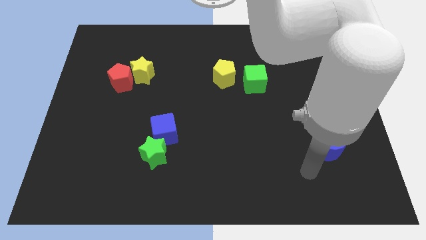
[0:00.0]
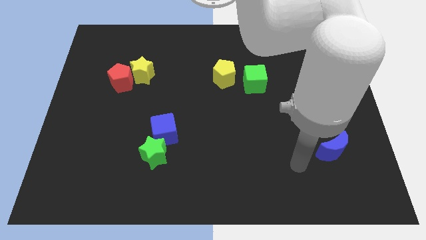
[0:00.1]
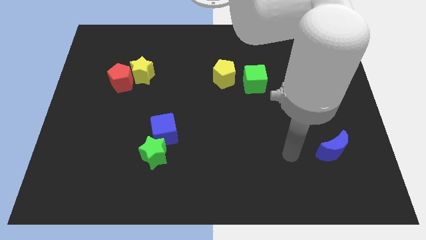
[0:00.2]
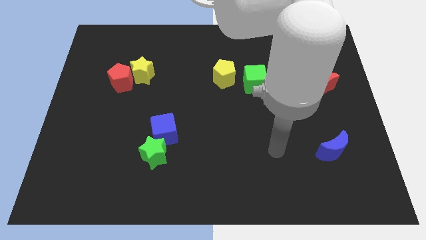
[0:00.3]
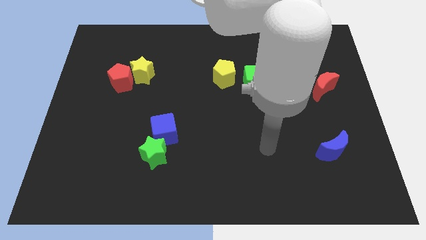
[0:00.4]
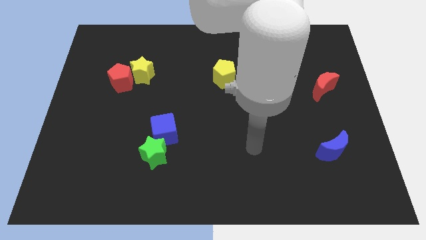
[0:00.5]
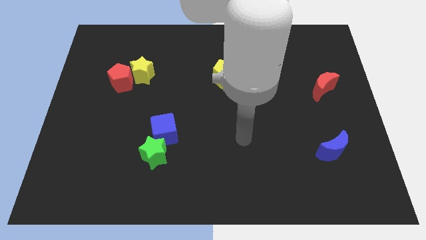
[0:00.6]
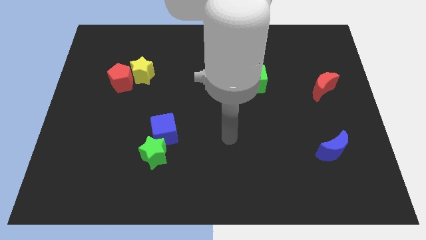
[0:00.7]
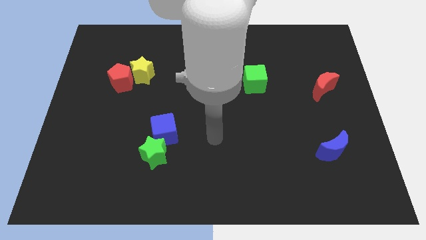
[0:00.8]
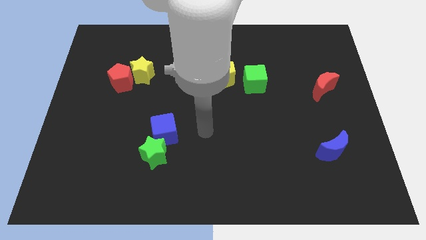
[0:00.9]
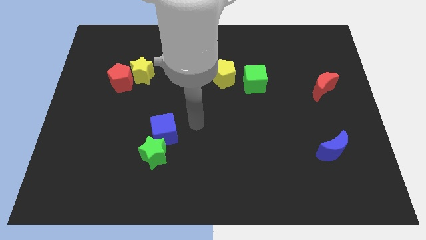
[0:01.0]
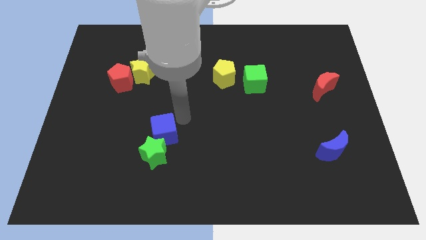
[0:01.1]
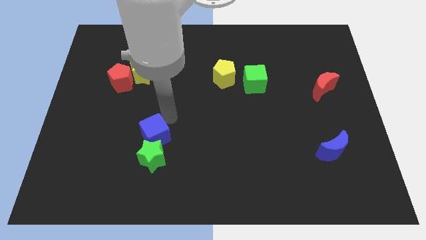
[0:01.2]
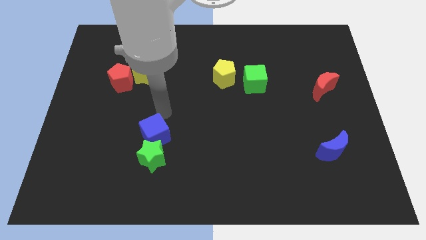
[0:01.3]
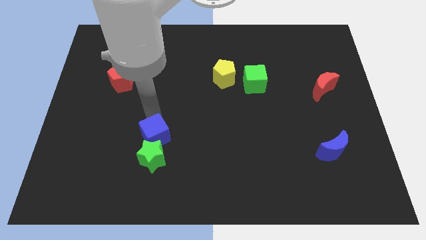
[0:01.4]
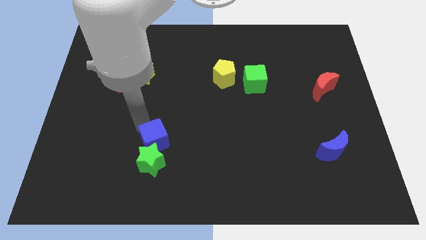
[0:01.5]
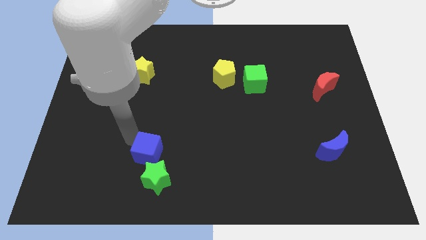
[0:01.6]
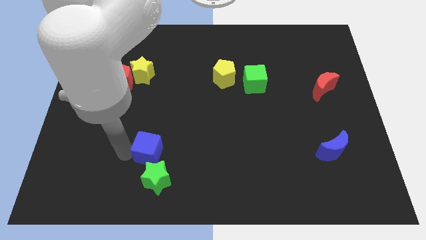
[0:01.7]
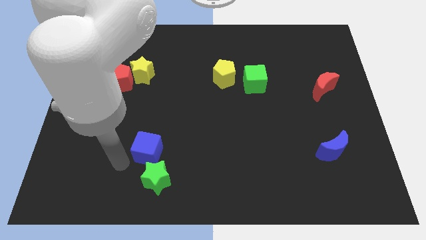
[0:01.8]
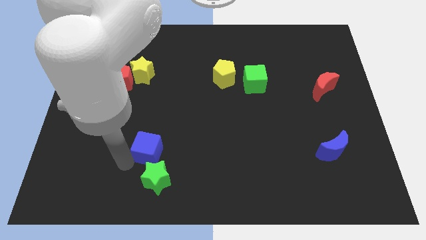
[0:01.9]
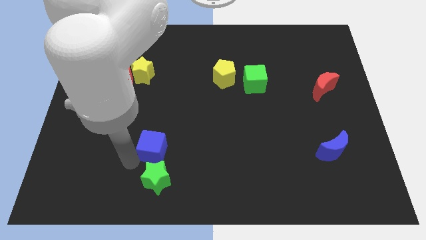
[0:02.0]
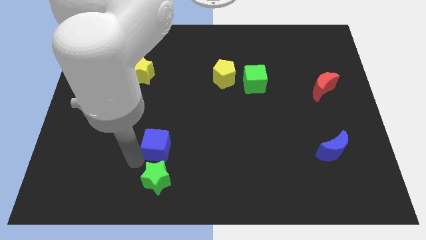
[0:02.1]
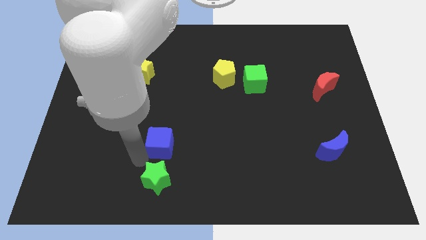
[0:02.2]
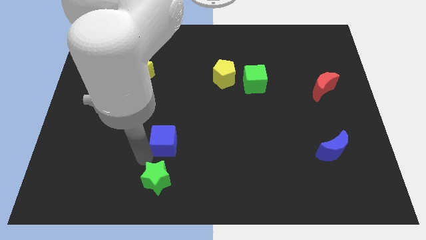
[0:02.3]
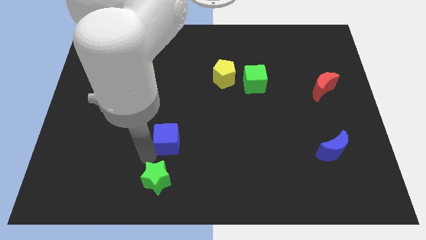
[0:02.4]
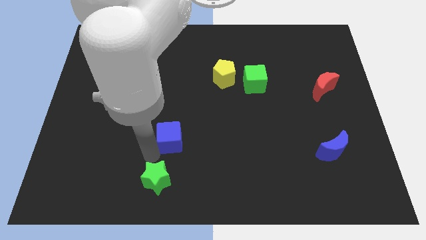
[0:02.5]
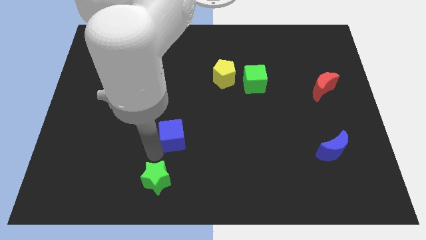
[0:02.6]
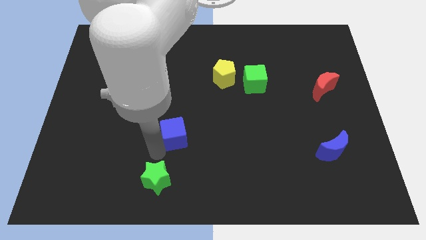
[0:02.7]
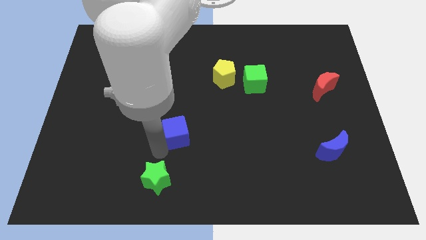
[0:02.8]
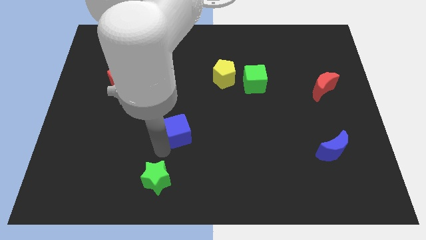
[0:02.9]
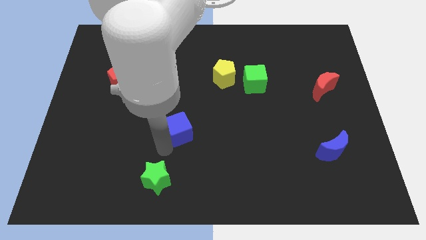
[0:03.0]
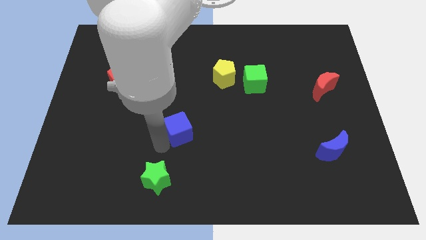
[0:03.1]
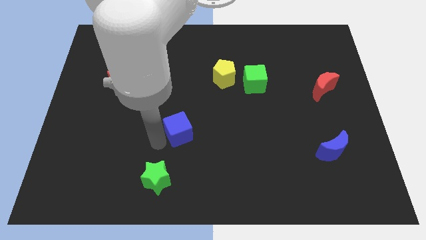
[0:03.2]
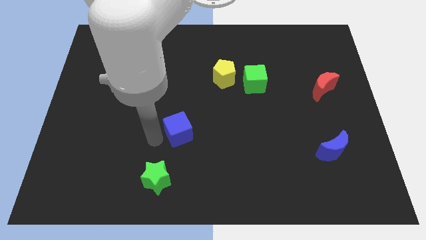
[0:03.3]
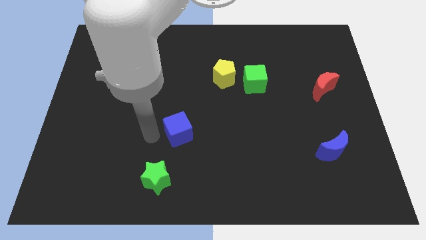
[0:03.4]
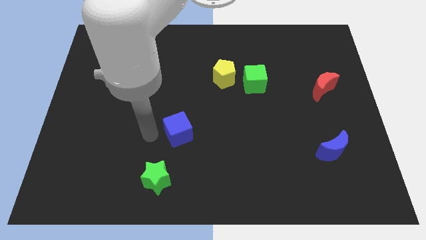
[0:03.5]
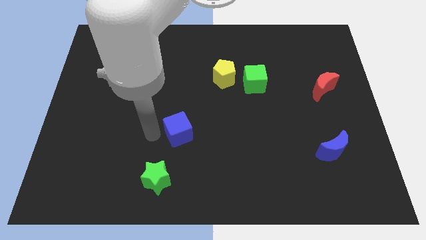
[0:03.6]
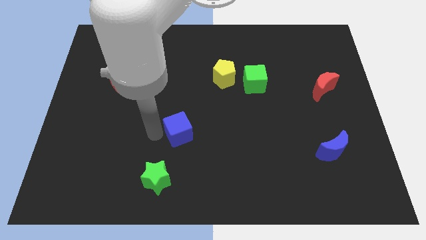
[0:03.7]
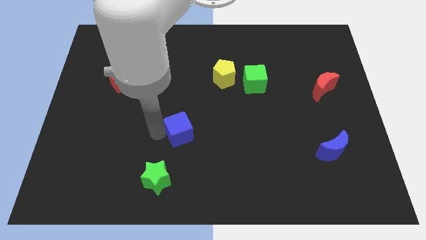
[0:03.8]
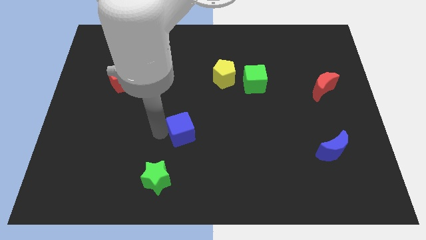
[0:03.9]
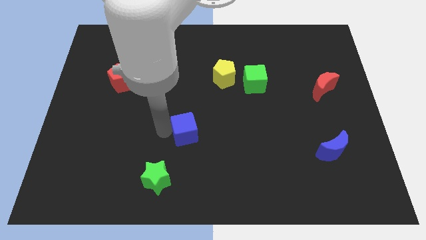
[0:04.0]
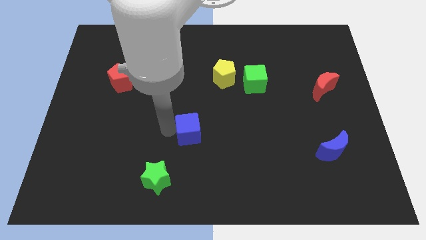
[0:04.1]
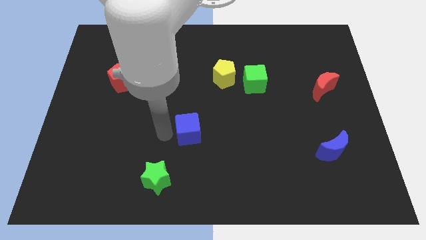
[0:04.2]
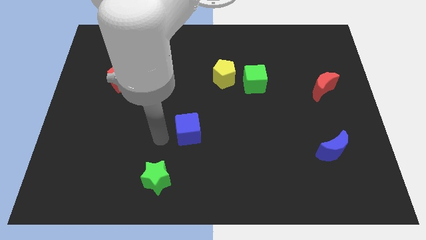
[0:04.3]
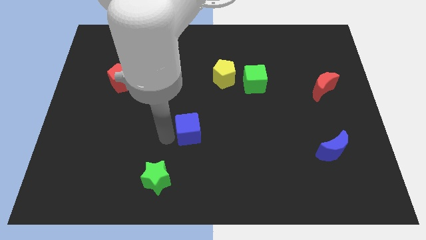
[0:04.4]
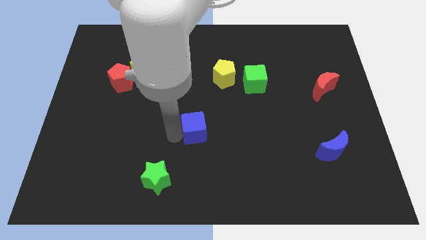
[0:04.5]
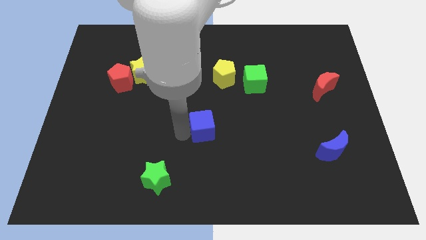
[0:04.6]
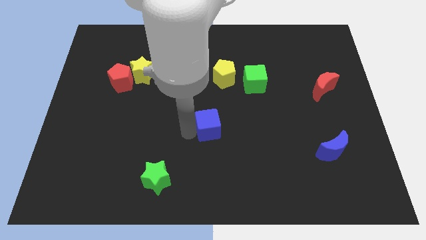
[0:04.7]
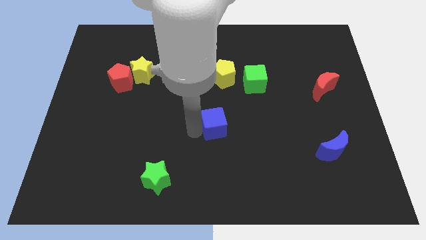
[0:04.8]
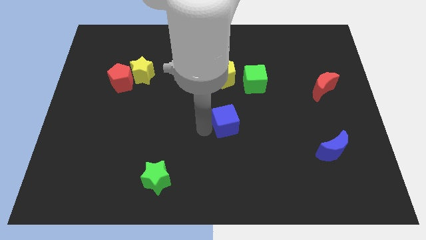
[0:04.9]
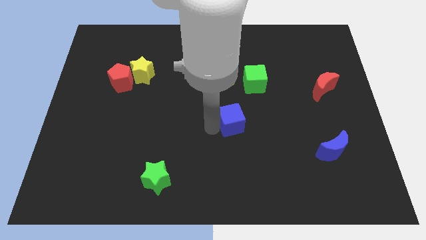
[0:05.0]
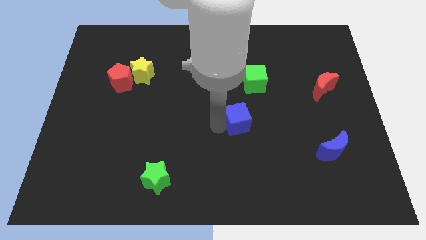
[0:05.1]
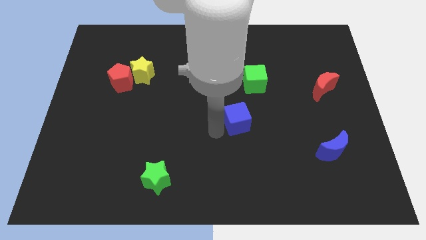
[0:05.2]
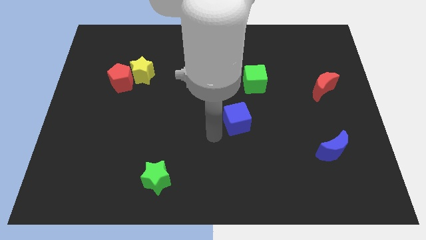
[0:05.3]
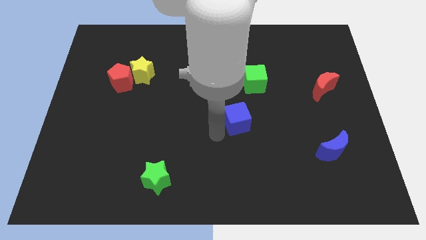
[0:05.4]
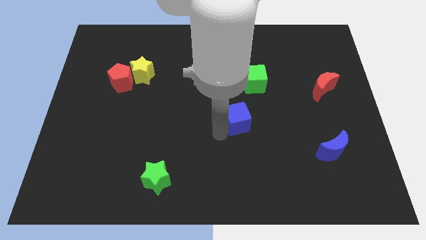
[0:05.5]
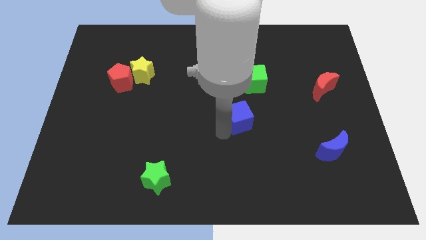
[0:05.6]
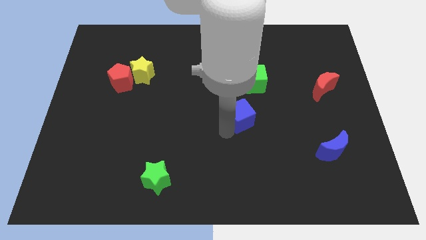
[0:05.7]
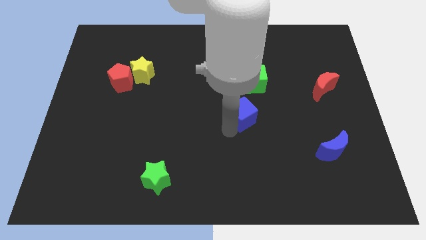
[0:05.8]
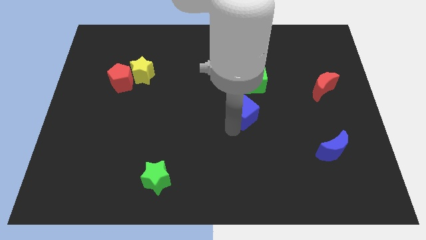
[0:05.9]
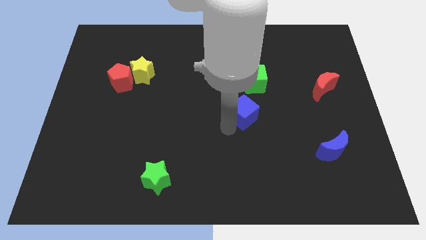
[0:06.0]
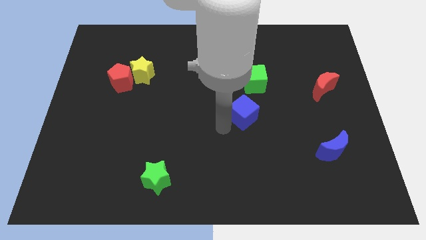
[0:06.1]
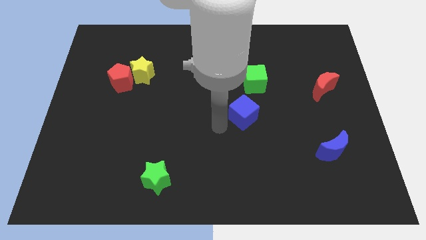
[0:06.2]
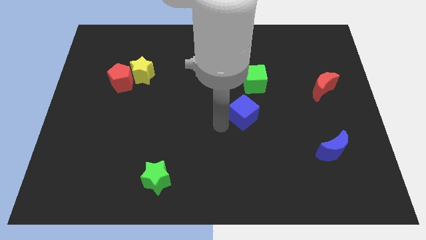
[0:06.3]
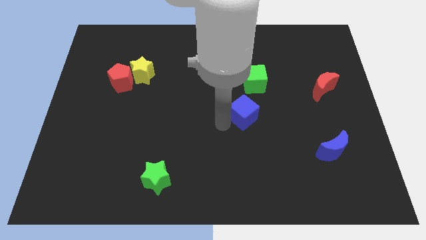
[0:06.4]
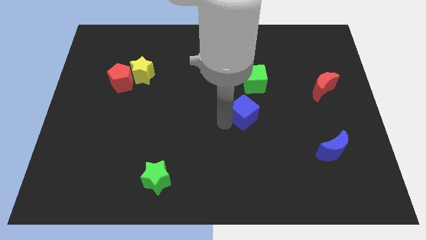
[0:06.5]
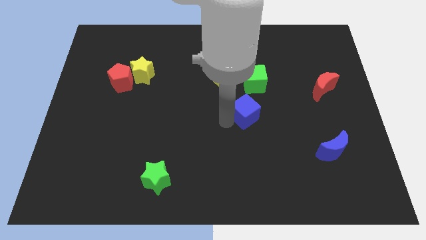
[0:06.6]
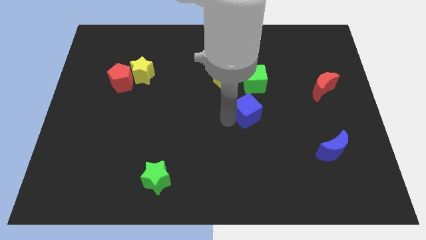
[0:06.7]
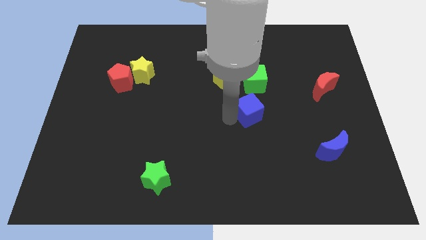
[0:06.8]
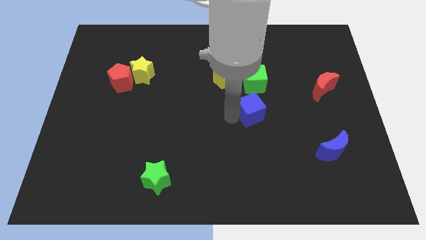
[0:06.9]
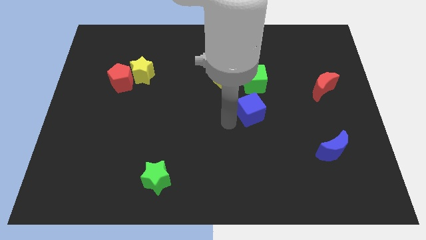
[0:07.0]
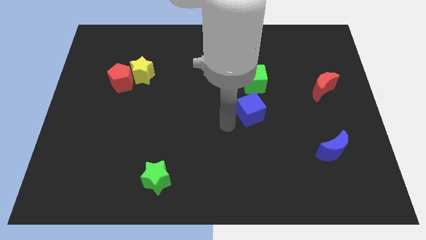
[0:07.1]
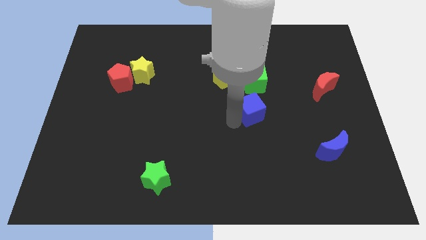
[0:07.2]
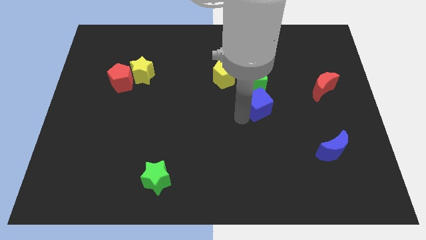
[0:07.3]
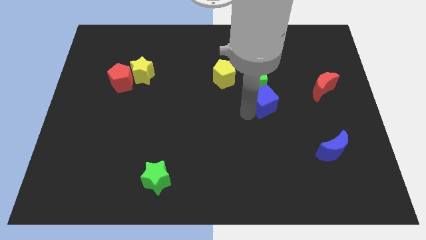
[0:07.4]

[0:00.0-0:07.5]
put the blue cube to the bottom right side of the green cube
